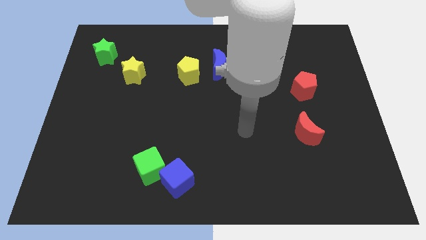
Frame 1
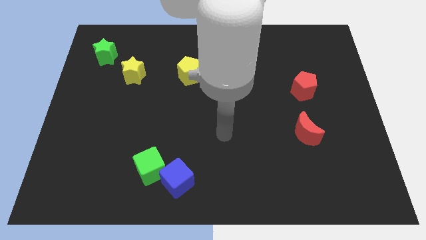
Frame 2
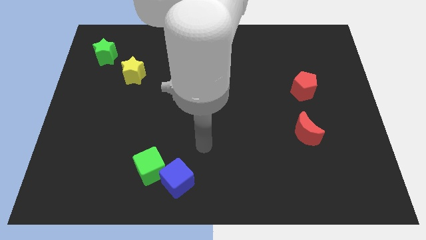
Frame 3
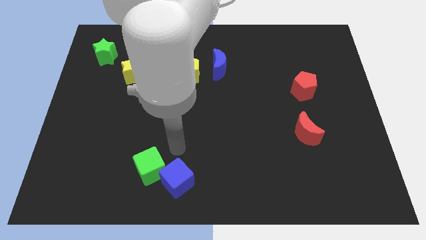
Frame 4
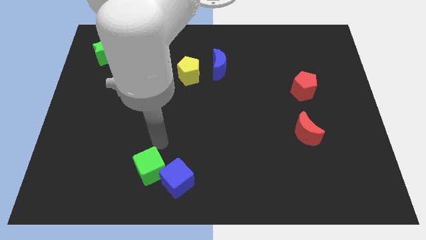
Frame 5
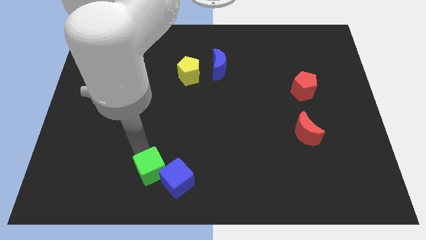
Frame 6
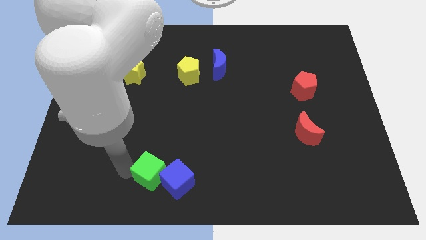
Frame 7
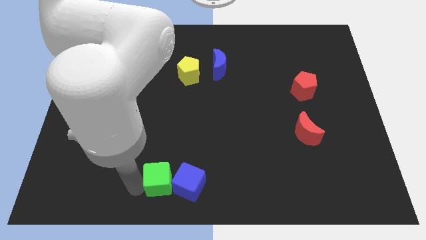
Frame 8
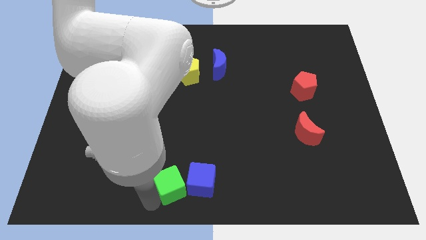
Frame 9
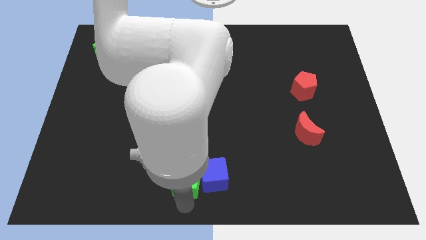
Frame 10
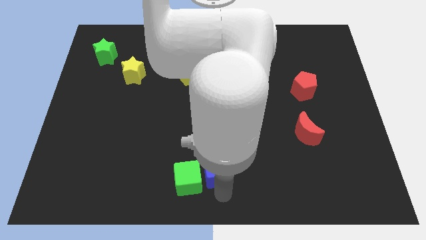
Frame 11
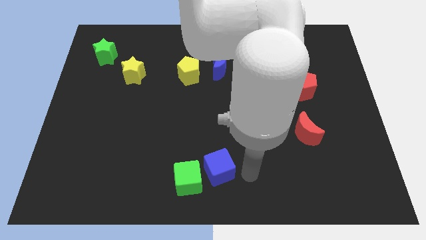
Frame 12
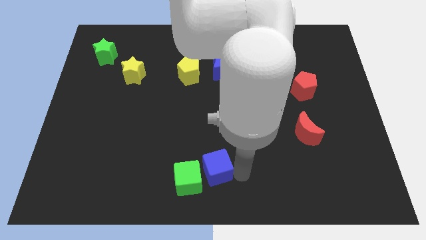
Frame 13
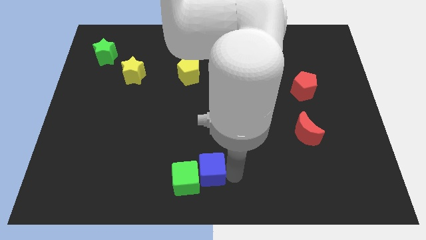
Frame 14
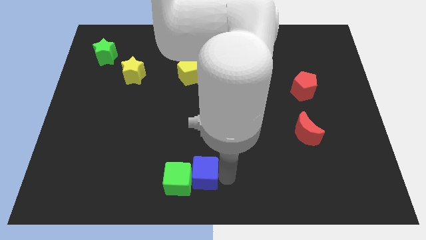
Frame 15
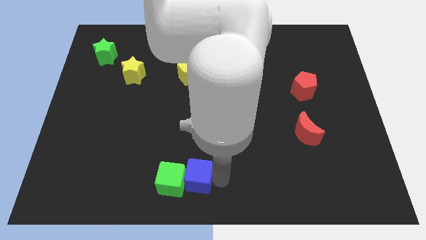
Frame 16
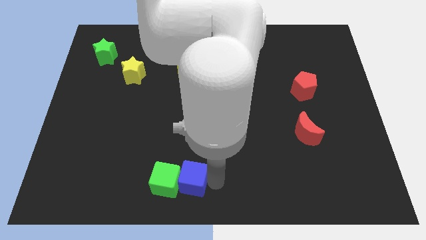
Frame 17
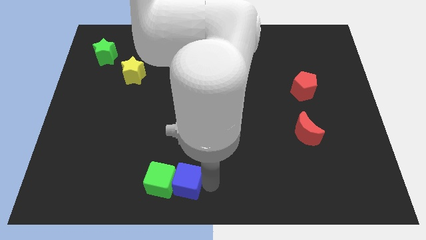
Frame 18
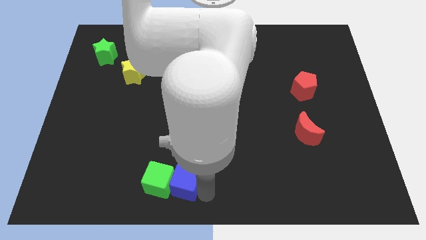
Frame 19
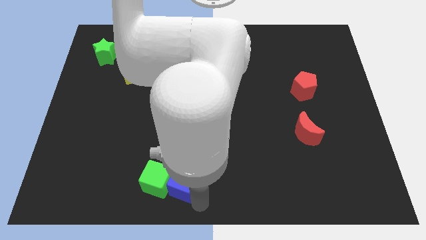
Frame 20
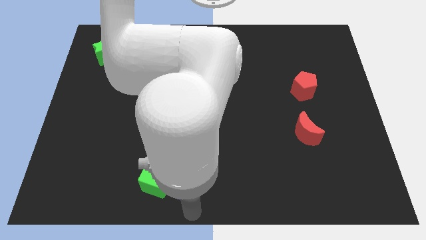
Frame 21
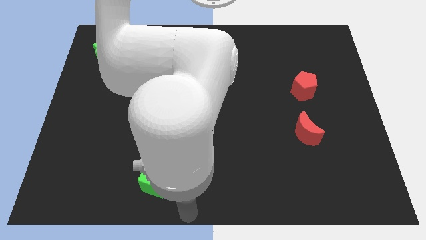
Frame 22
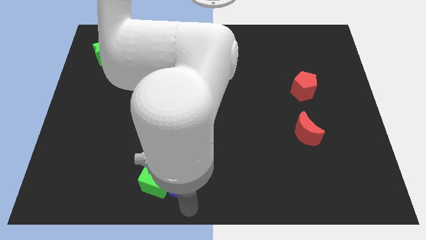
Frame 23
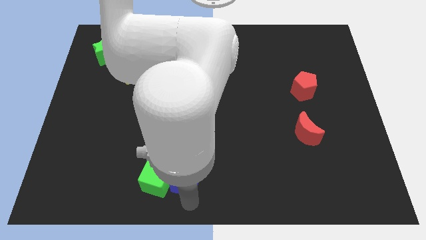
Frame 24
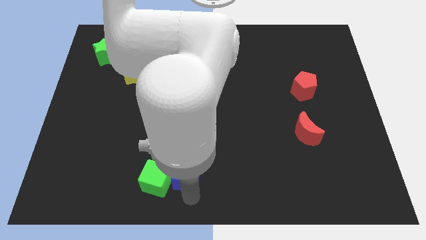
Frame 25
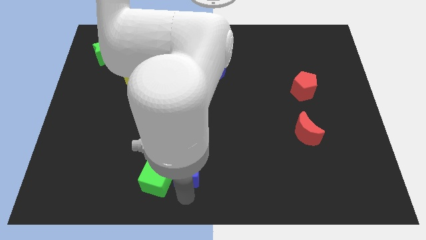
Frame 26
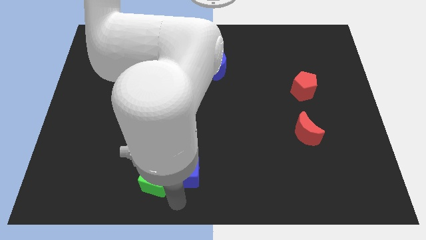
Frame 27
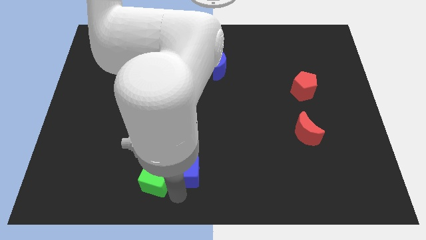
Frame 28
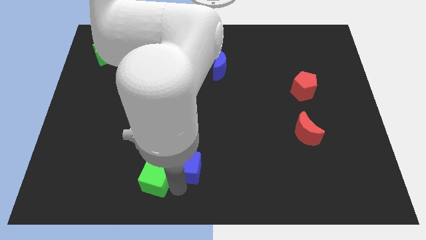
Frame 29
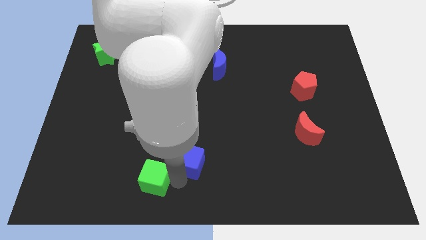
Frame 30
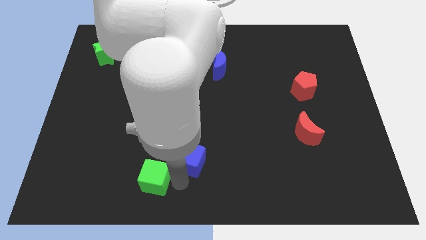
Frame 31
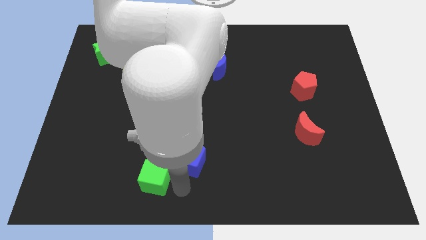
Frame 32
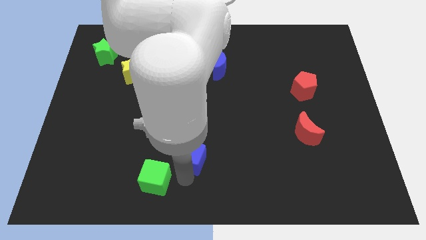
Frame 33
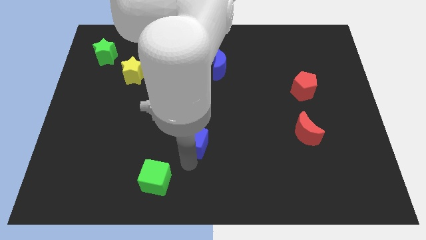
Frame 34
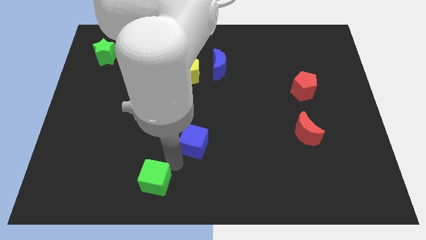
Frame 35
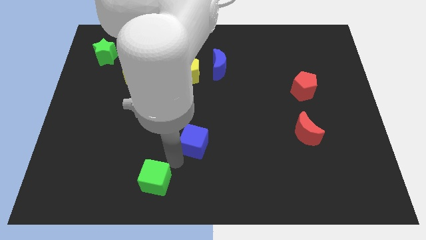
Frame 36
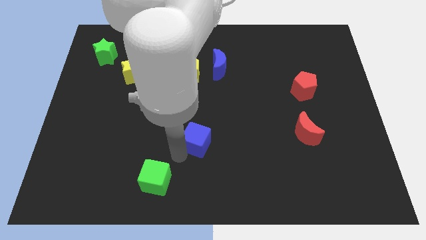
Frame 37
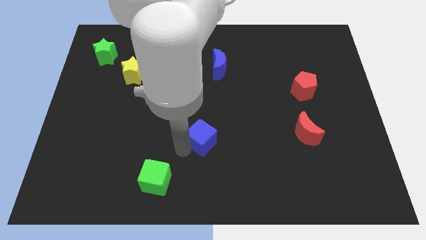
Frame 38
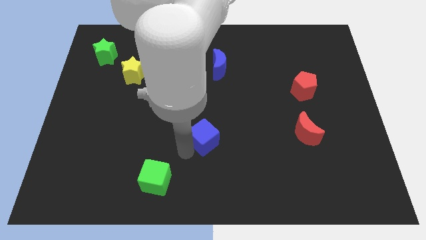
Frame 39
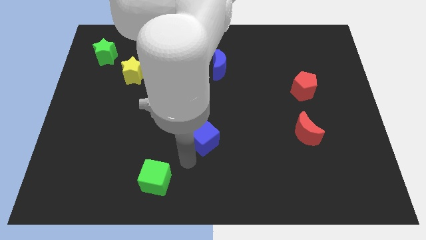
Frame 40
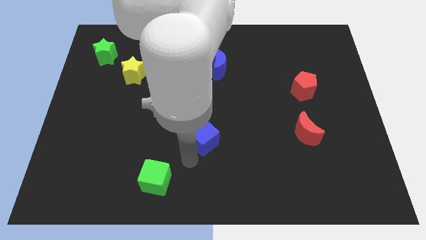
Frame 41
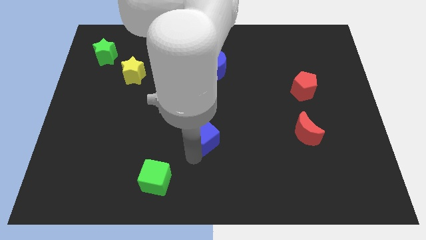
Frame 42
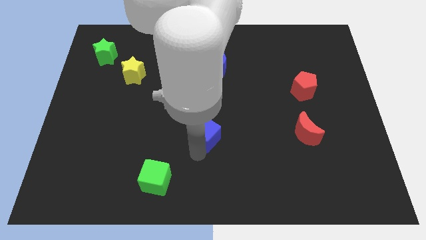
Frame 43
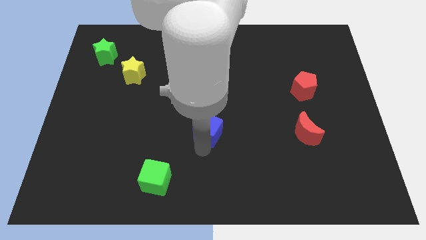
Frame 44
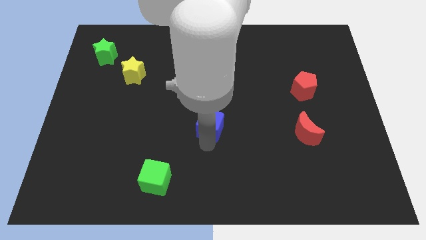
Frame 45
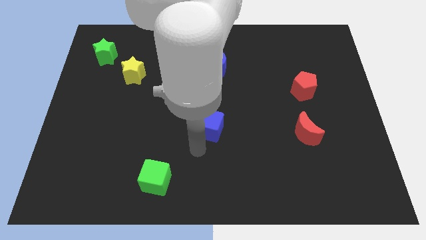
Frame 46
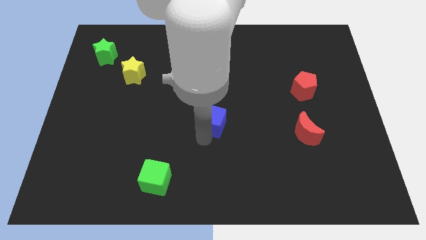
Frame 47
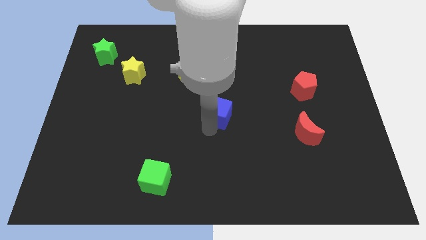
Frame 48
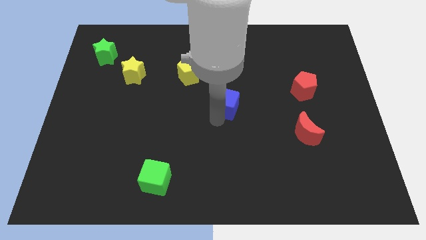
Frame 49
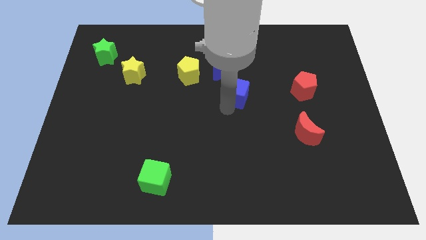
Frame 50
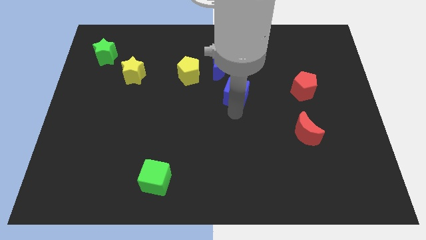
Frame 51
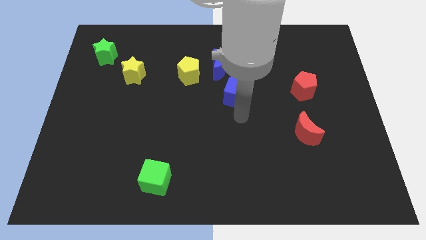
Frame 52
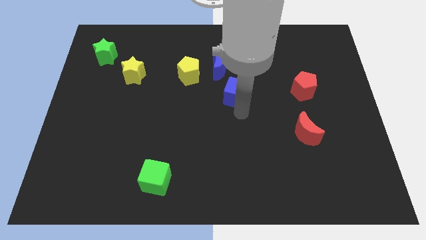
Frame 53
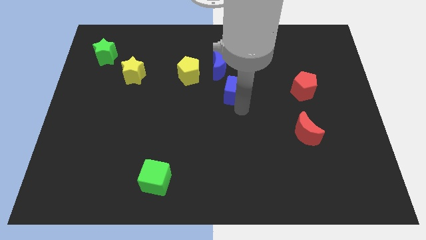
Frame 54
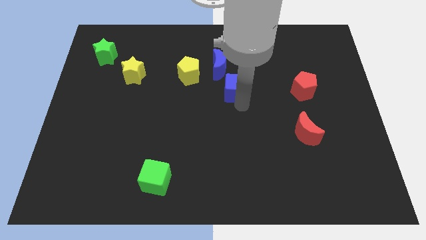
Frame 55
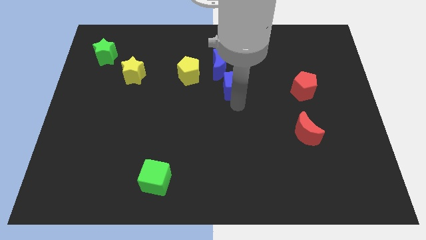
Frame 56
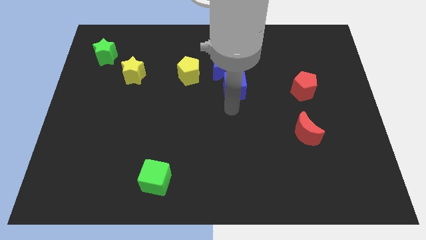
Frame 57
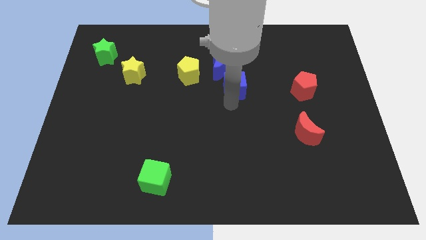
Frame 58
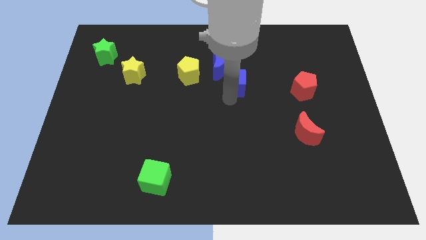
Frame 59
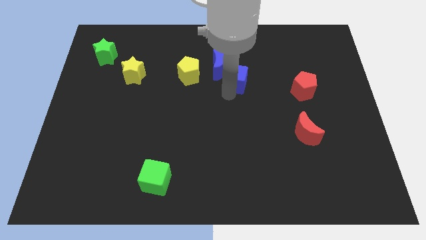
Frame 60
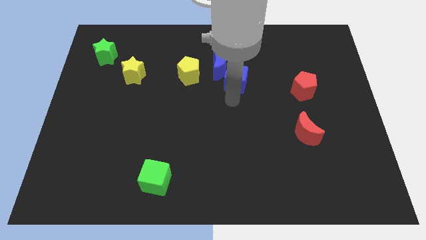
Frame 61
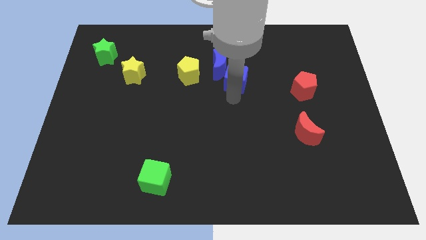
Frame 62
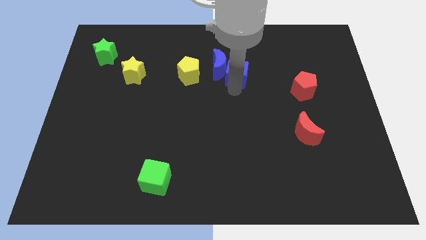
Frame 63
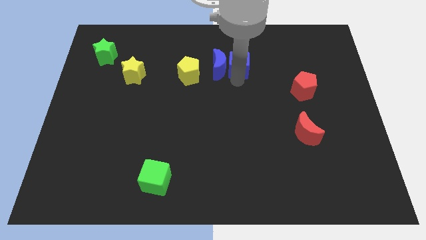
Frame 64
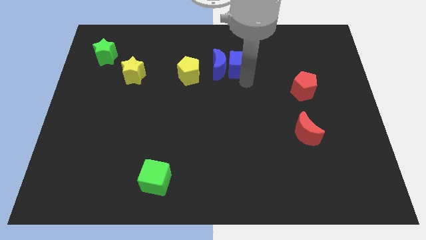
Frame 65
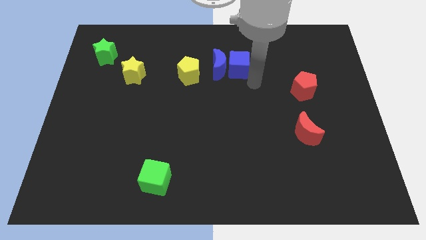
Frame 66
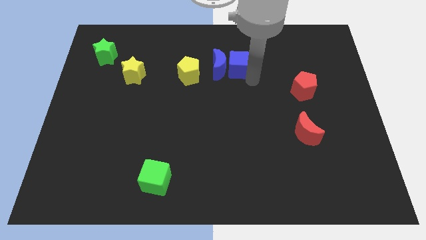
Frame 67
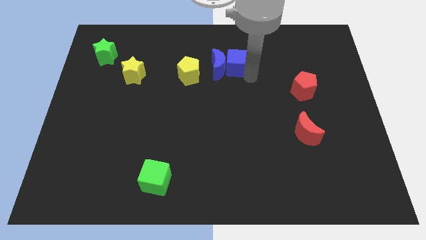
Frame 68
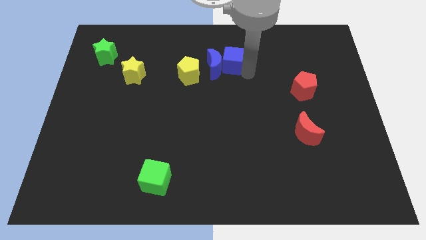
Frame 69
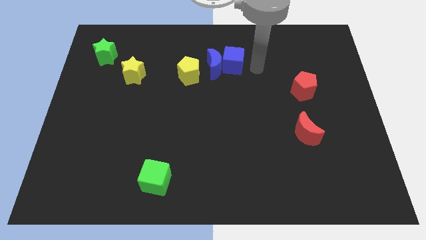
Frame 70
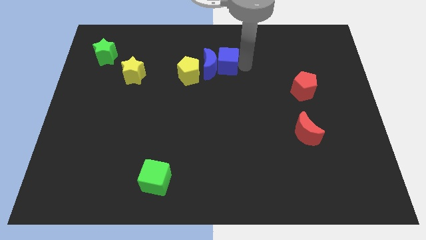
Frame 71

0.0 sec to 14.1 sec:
put the blue cube to the top right side of the yellow pentagon
